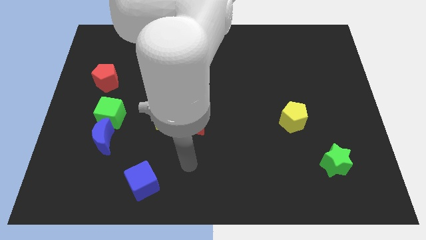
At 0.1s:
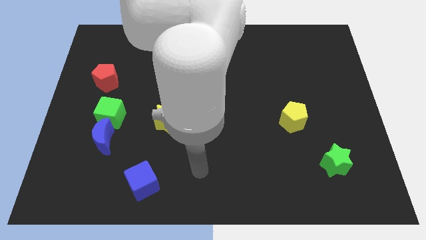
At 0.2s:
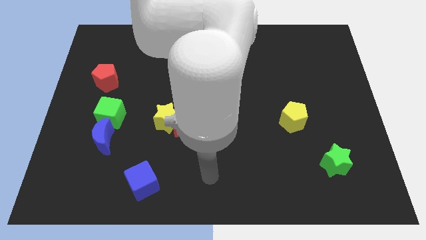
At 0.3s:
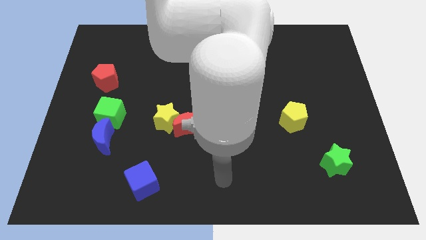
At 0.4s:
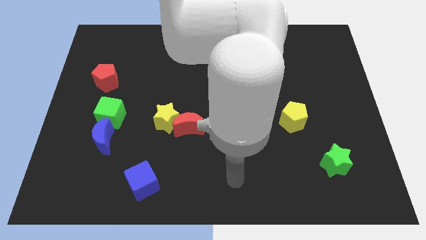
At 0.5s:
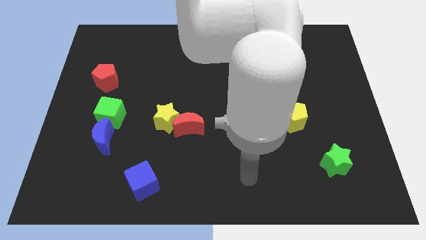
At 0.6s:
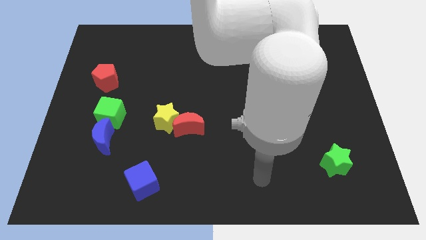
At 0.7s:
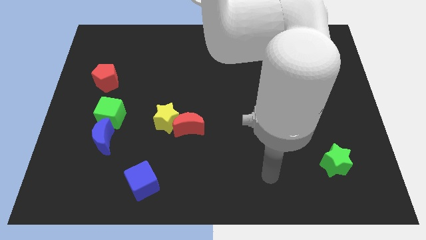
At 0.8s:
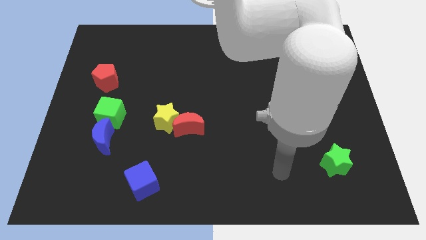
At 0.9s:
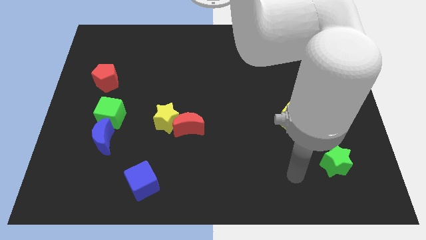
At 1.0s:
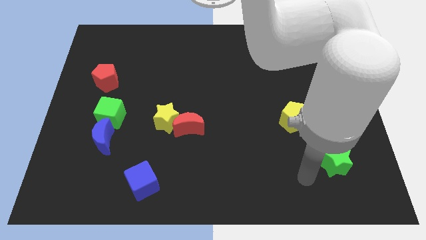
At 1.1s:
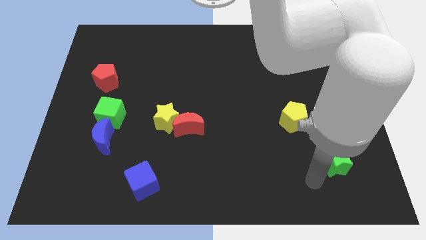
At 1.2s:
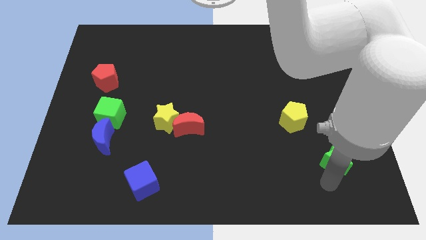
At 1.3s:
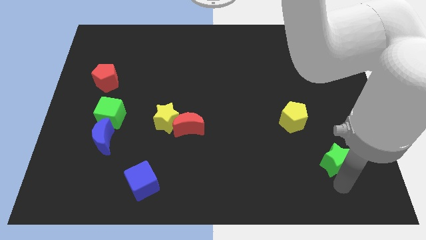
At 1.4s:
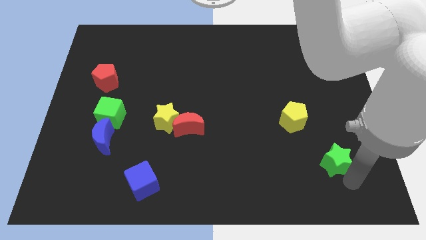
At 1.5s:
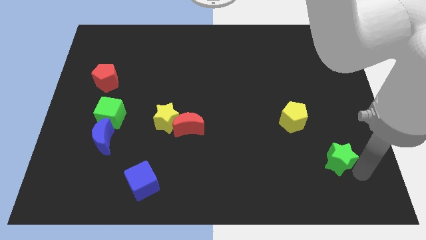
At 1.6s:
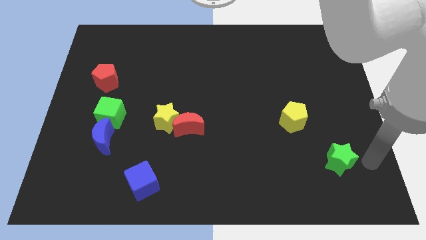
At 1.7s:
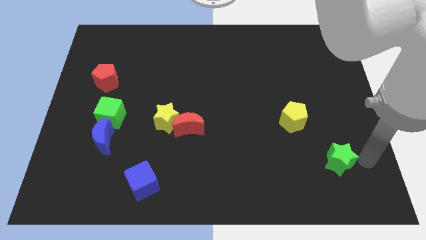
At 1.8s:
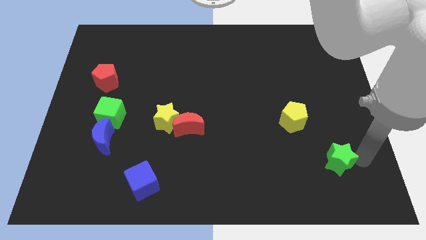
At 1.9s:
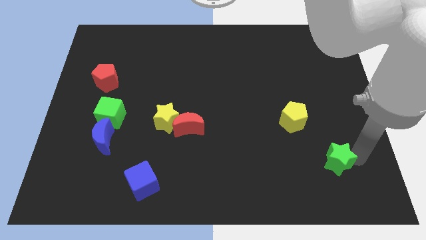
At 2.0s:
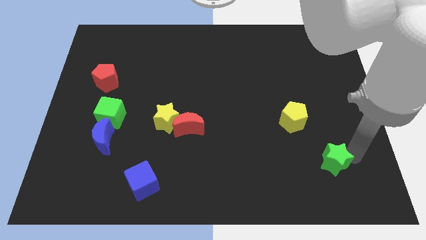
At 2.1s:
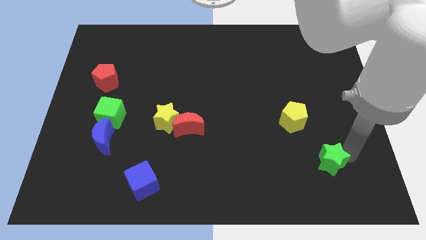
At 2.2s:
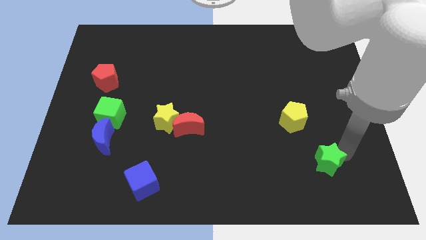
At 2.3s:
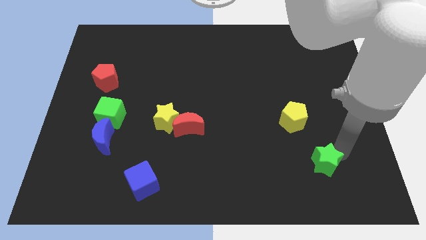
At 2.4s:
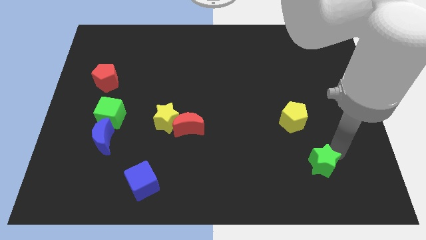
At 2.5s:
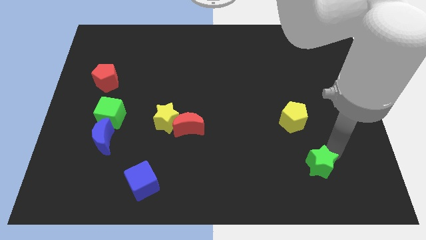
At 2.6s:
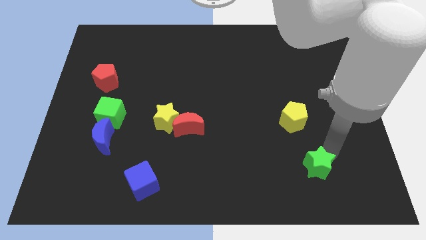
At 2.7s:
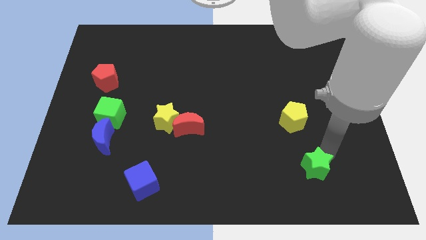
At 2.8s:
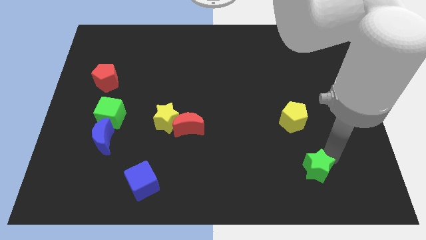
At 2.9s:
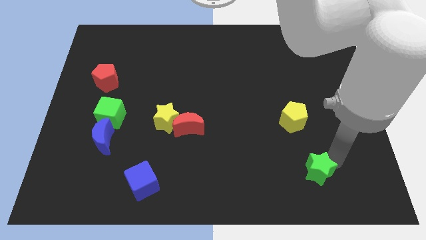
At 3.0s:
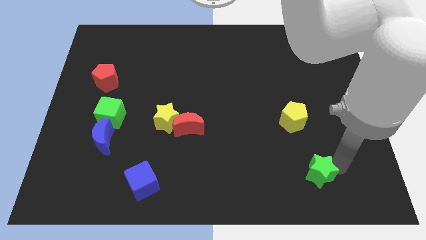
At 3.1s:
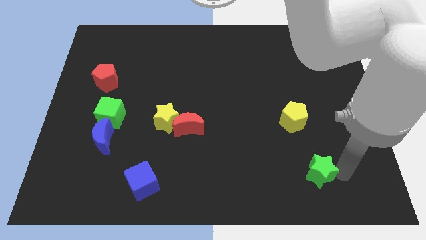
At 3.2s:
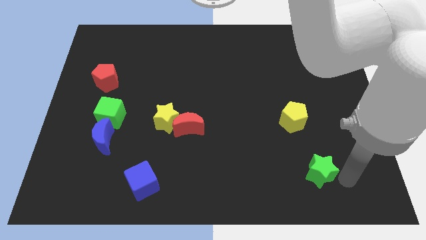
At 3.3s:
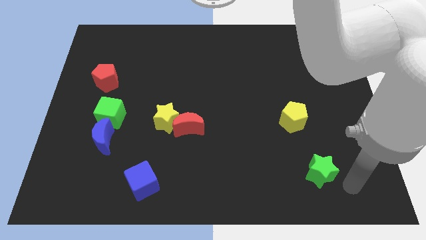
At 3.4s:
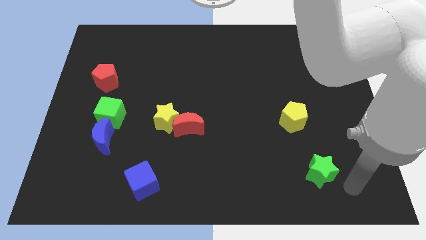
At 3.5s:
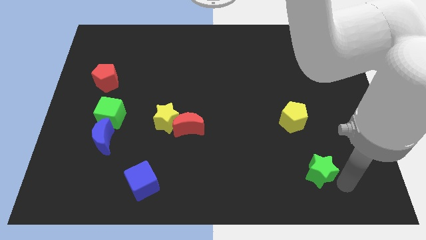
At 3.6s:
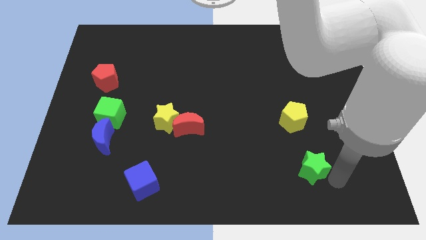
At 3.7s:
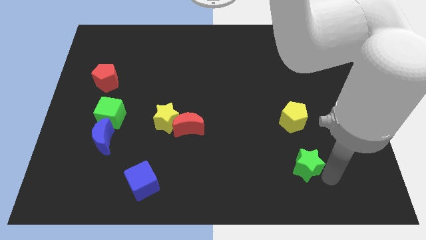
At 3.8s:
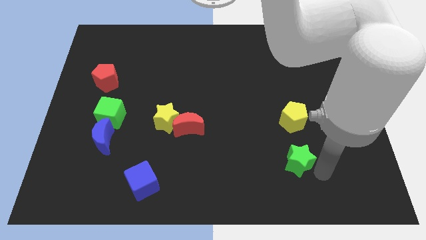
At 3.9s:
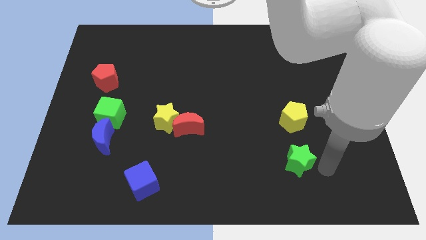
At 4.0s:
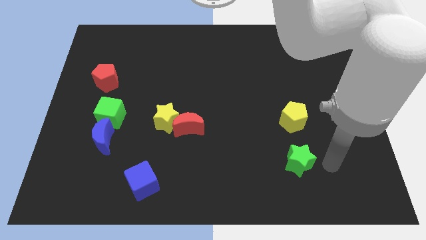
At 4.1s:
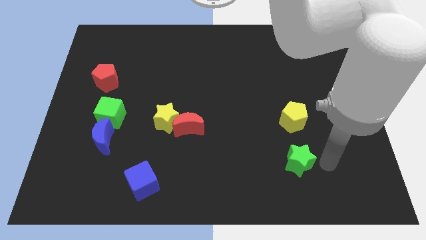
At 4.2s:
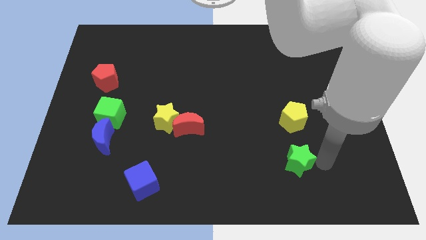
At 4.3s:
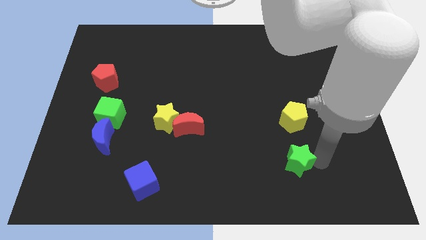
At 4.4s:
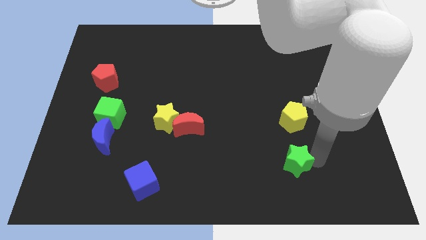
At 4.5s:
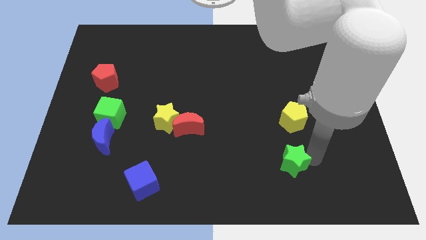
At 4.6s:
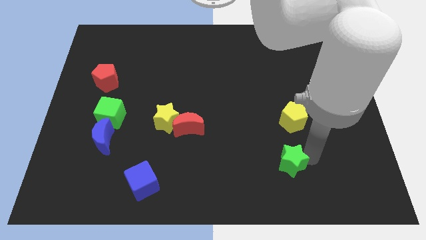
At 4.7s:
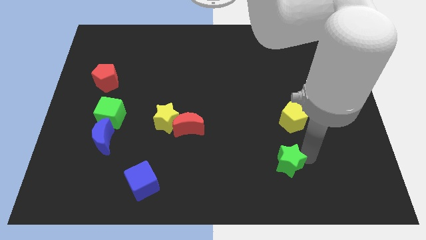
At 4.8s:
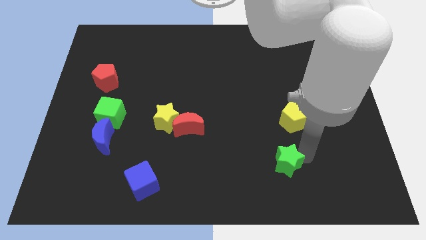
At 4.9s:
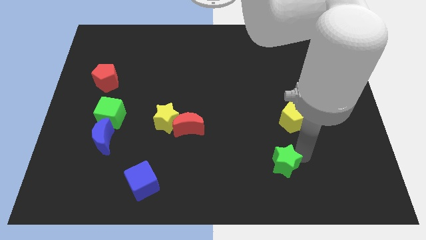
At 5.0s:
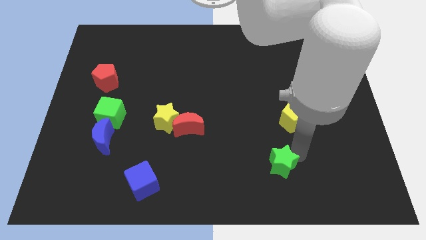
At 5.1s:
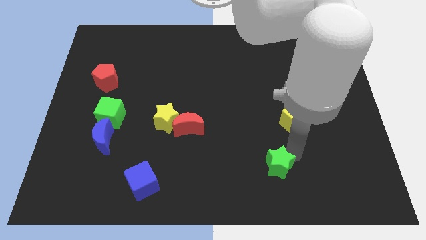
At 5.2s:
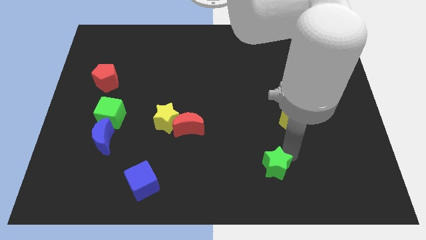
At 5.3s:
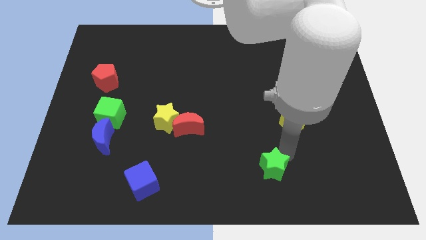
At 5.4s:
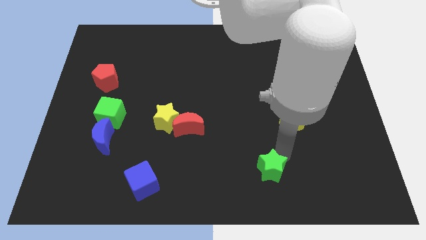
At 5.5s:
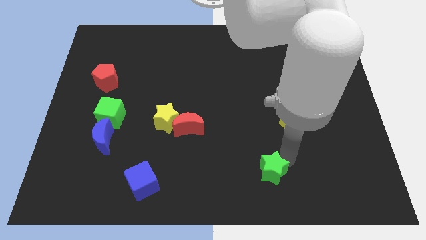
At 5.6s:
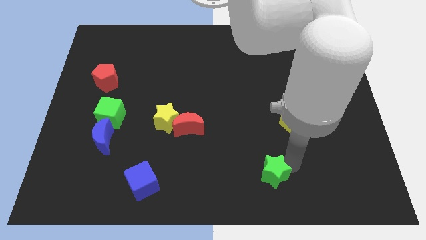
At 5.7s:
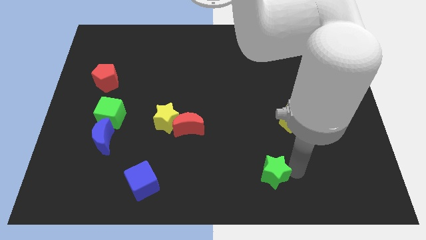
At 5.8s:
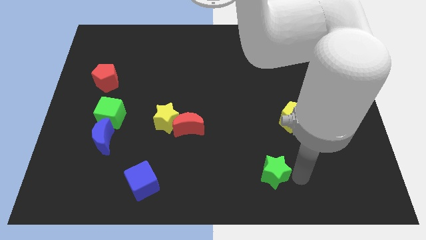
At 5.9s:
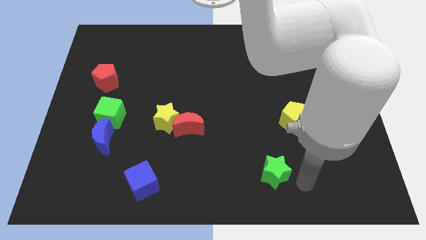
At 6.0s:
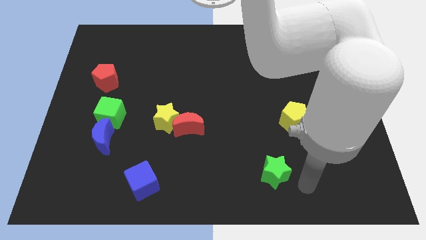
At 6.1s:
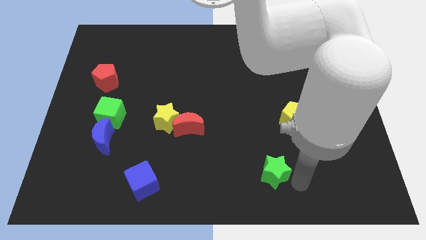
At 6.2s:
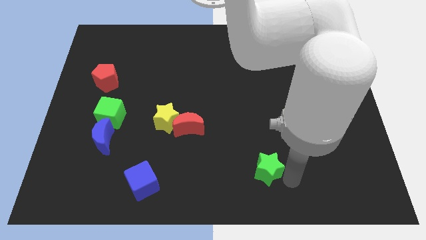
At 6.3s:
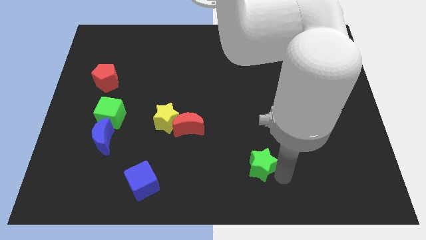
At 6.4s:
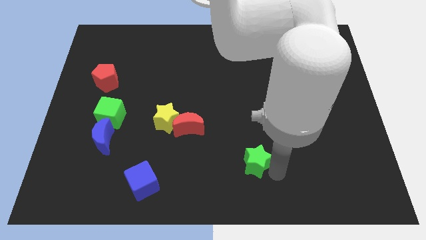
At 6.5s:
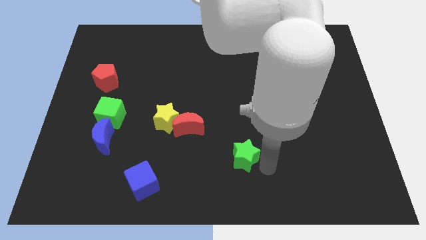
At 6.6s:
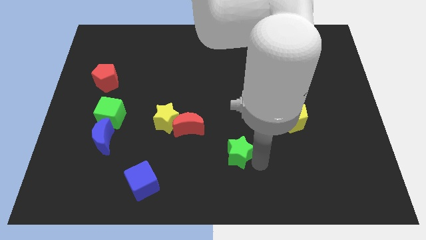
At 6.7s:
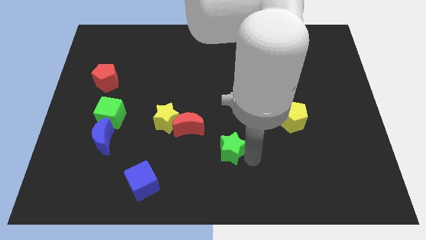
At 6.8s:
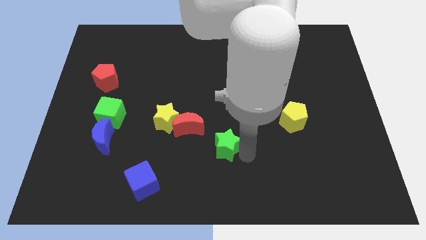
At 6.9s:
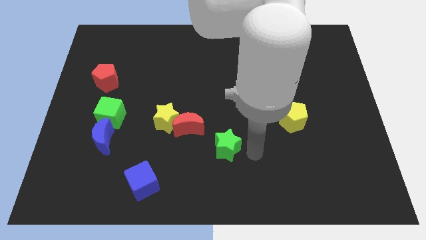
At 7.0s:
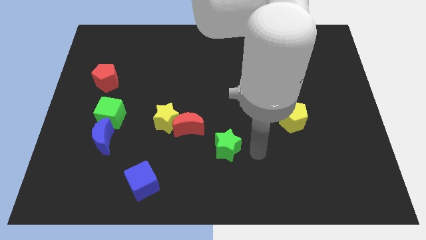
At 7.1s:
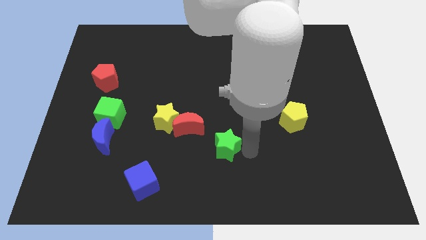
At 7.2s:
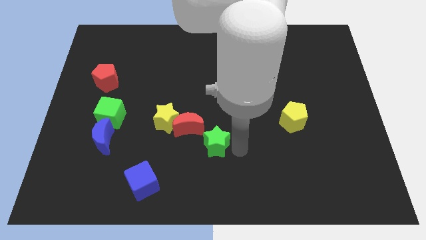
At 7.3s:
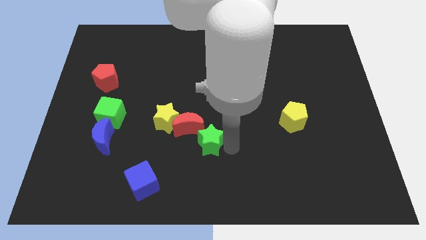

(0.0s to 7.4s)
move the green star diagonally down and to the right of the yellow star

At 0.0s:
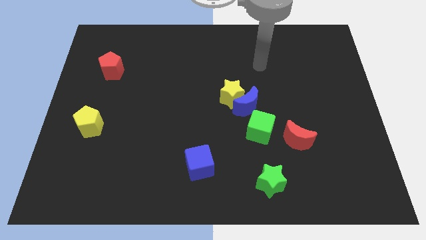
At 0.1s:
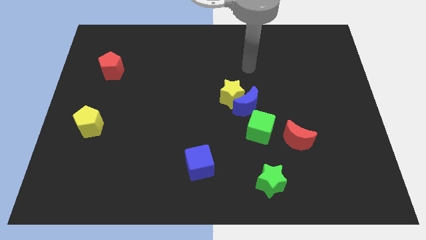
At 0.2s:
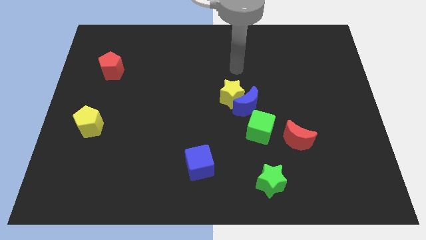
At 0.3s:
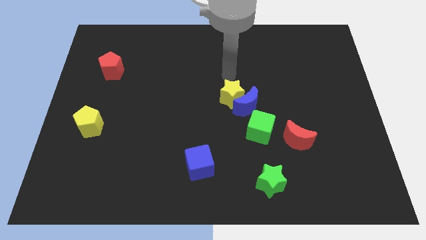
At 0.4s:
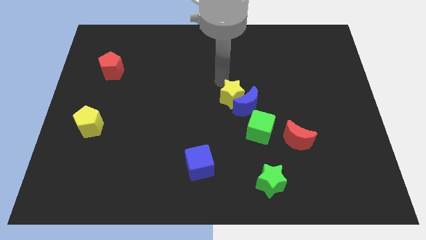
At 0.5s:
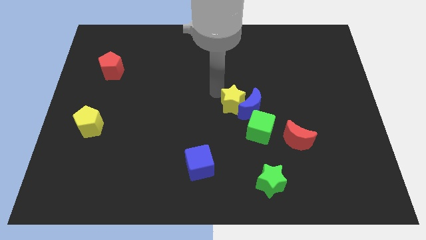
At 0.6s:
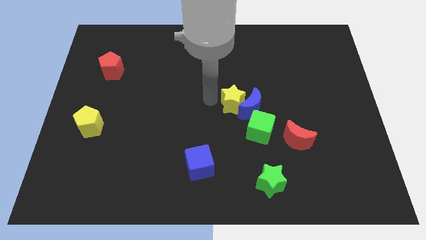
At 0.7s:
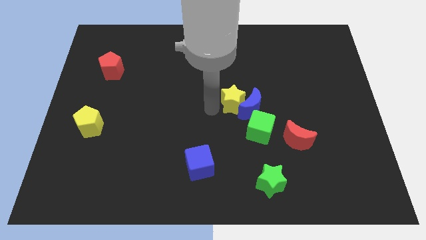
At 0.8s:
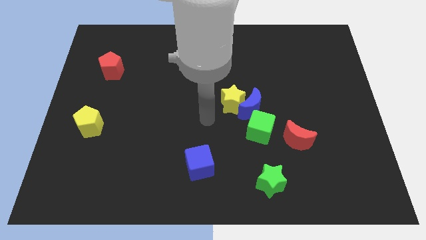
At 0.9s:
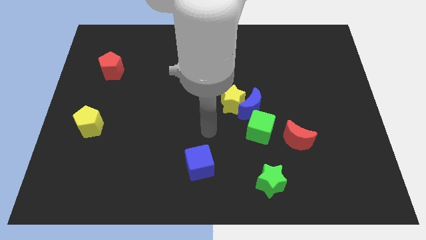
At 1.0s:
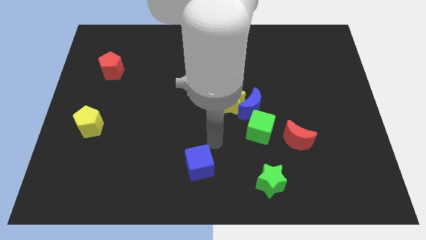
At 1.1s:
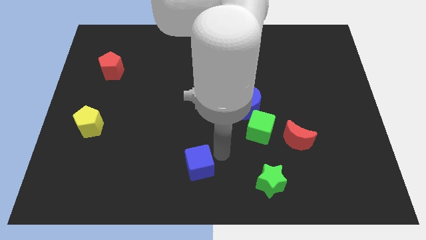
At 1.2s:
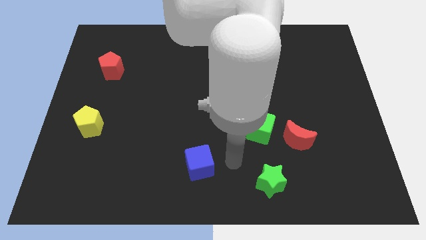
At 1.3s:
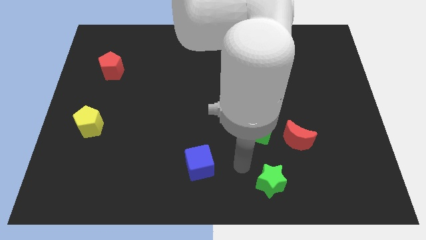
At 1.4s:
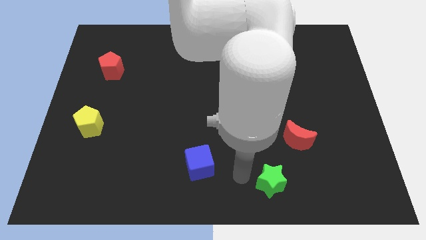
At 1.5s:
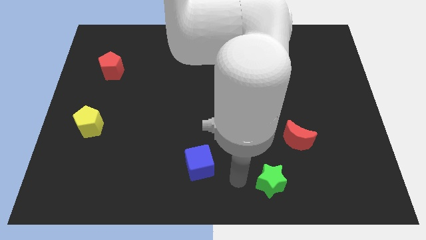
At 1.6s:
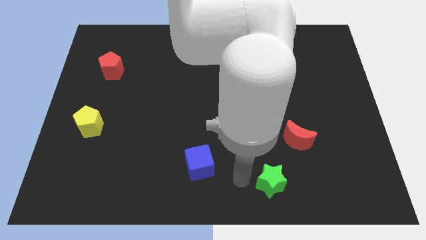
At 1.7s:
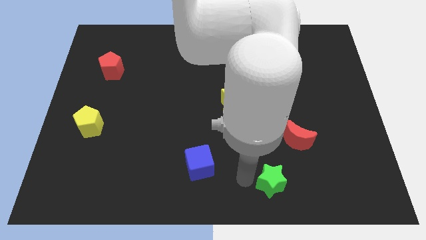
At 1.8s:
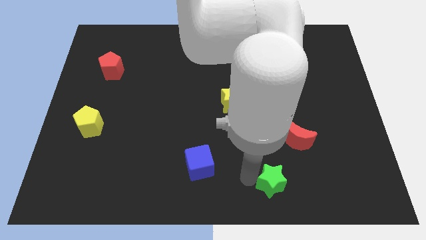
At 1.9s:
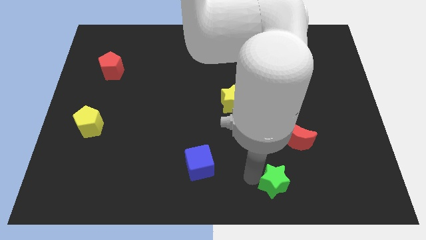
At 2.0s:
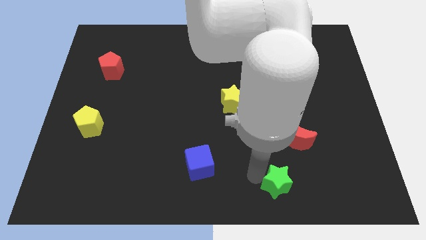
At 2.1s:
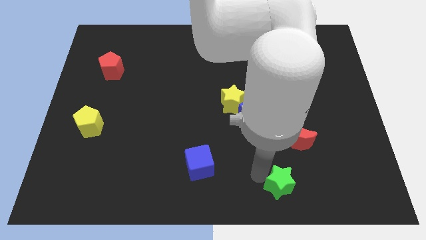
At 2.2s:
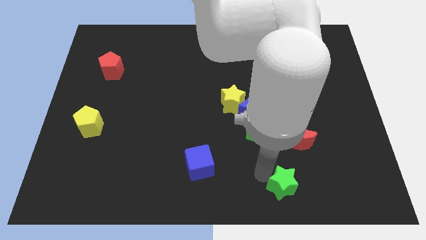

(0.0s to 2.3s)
push the green star to the bottom side of the red moon
